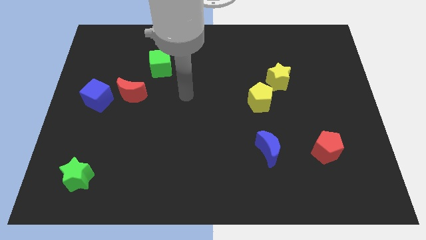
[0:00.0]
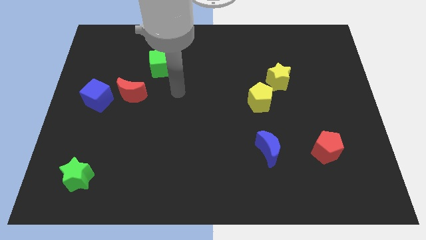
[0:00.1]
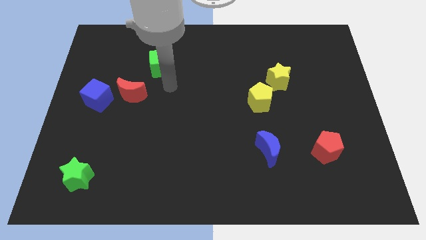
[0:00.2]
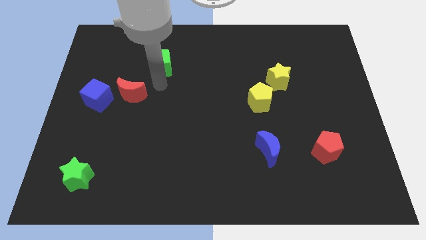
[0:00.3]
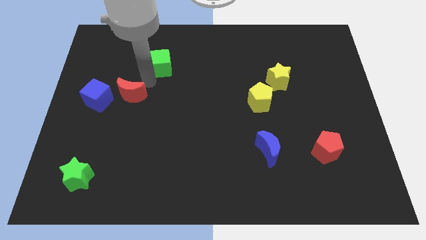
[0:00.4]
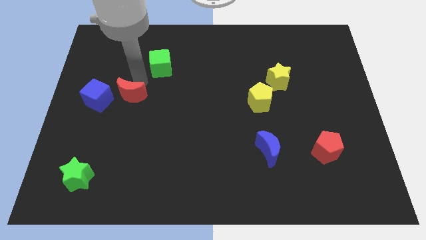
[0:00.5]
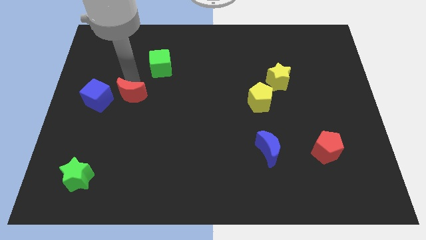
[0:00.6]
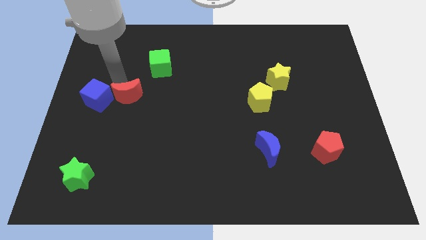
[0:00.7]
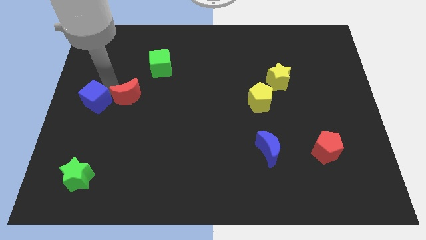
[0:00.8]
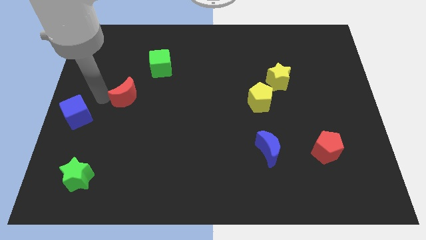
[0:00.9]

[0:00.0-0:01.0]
move the red moon away from the blue cube

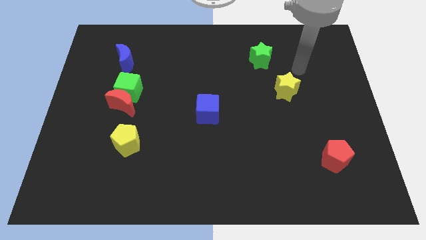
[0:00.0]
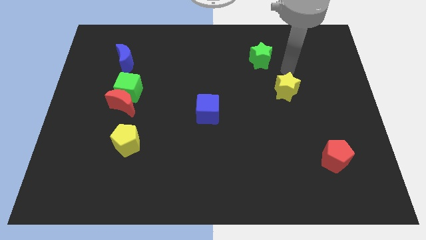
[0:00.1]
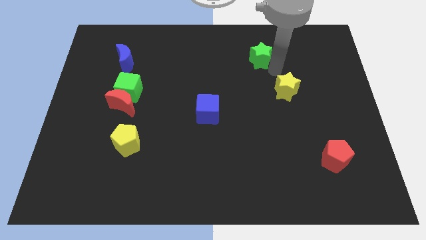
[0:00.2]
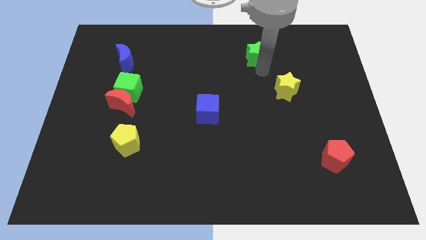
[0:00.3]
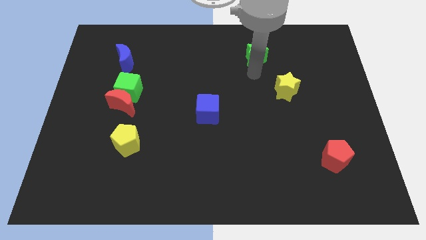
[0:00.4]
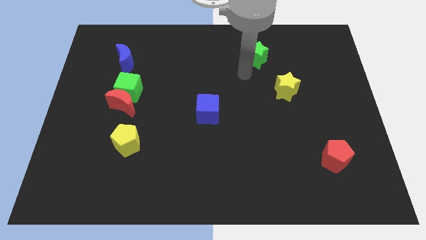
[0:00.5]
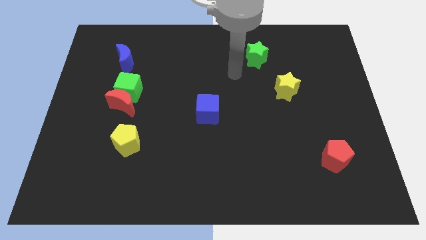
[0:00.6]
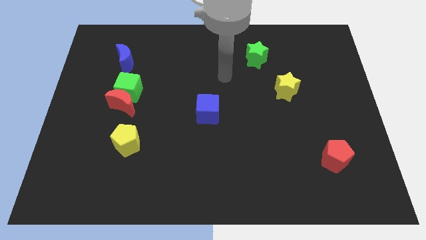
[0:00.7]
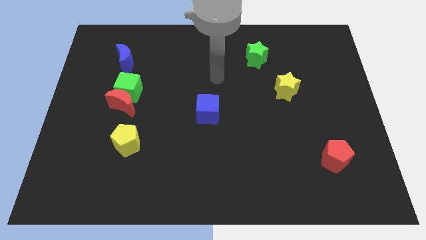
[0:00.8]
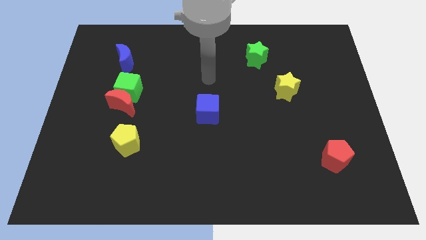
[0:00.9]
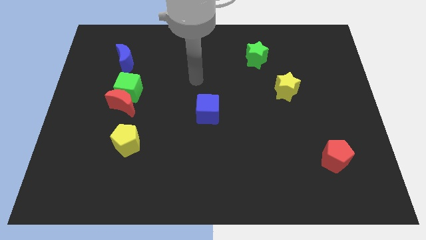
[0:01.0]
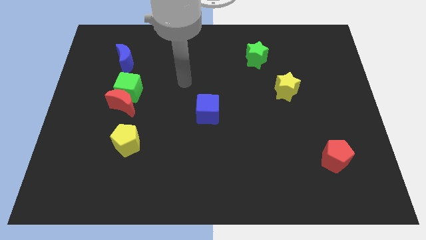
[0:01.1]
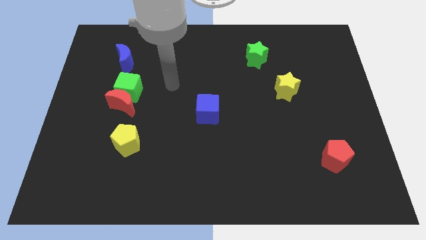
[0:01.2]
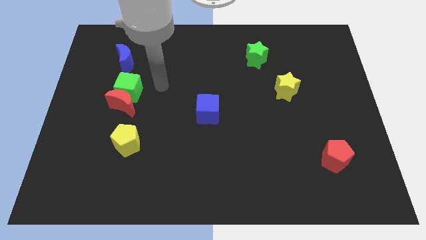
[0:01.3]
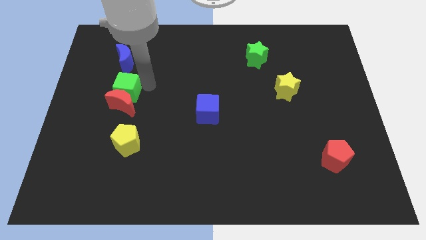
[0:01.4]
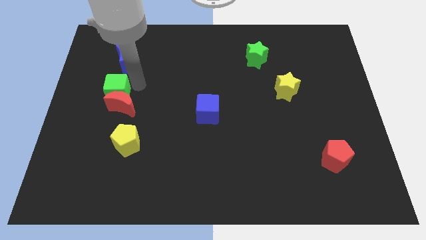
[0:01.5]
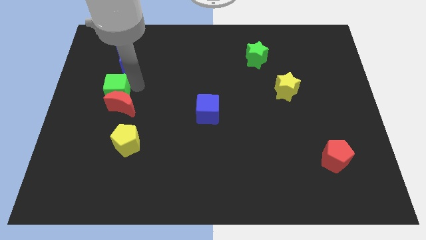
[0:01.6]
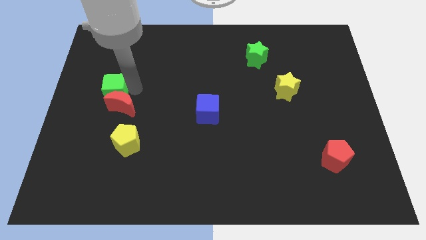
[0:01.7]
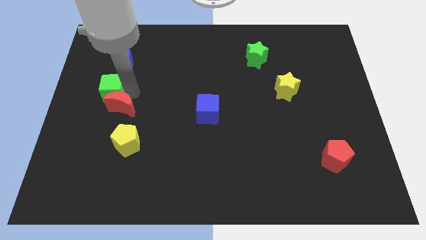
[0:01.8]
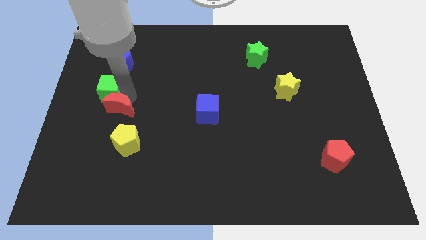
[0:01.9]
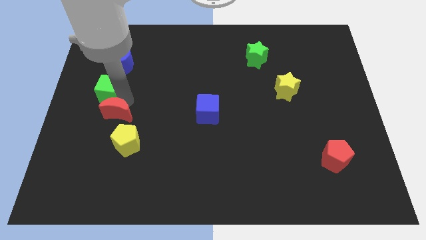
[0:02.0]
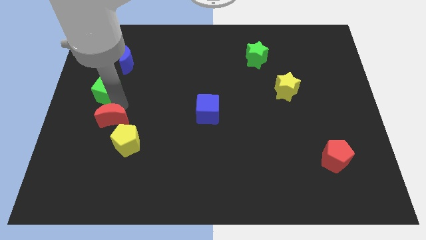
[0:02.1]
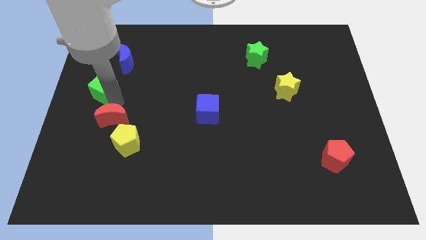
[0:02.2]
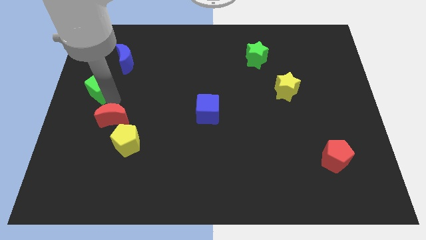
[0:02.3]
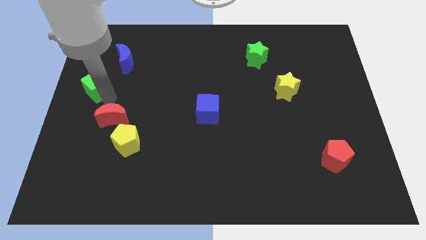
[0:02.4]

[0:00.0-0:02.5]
pull the red moon apart from the green cube

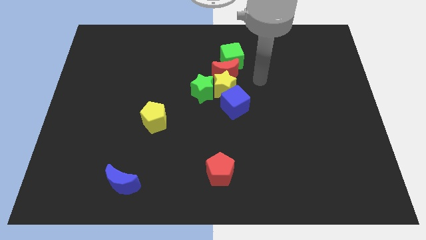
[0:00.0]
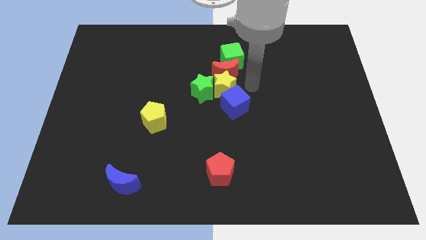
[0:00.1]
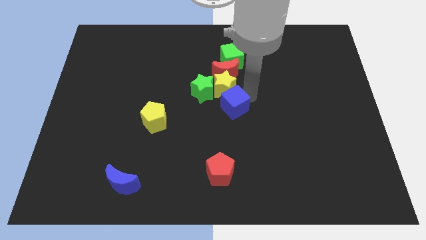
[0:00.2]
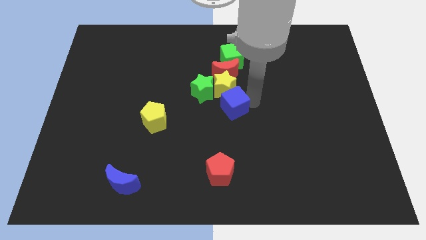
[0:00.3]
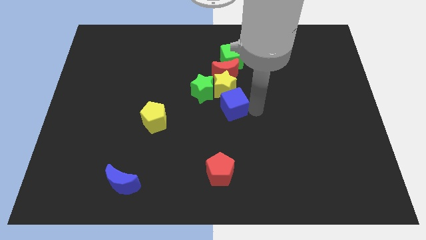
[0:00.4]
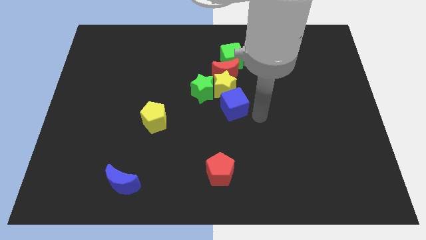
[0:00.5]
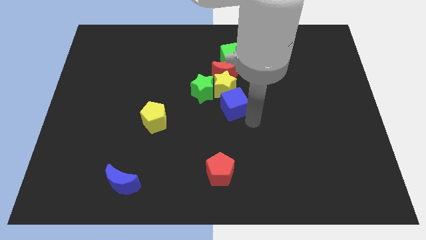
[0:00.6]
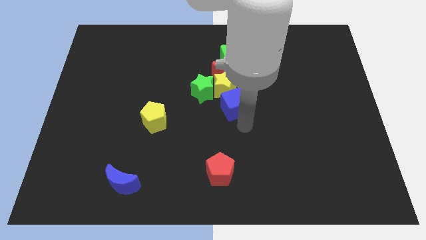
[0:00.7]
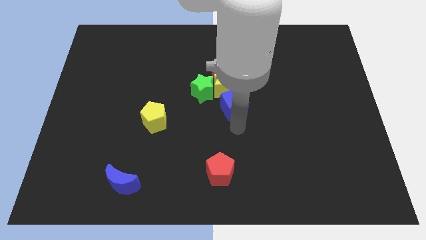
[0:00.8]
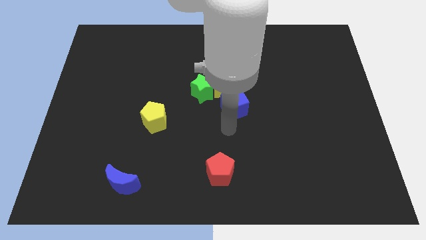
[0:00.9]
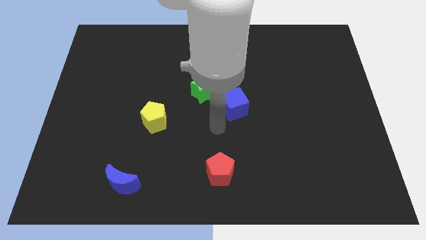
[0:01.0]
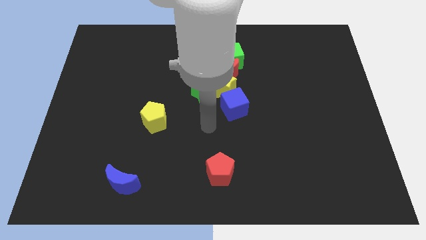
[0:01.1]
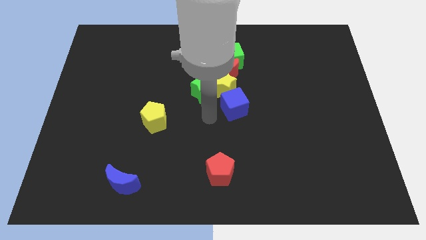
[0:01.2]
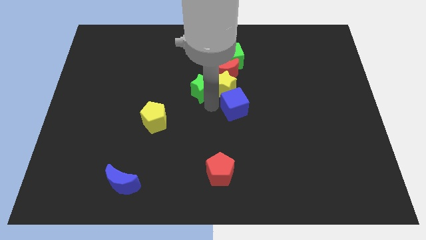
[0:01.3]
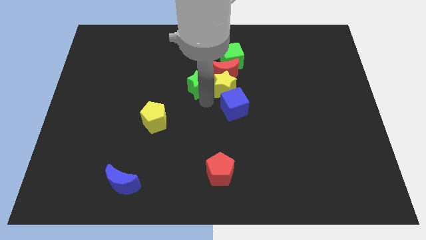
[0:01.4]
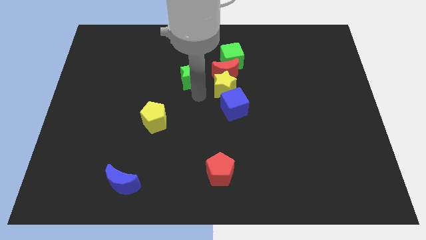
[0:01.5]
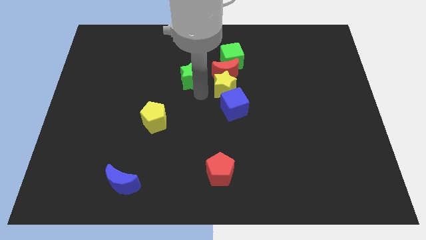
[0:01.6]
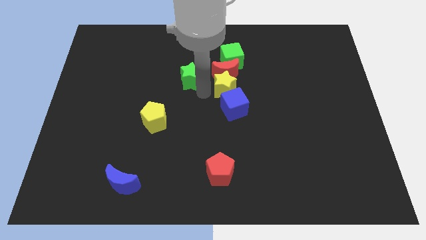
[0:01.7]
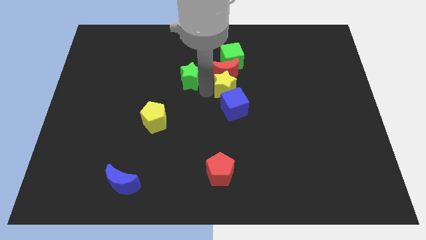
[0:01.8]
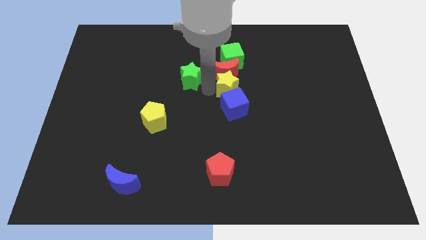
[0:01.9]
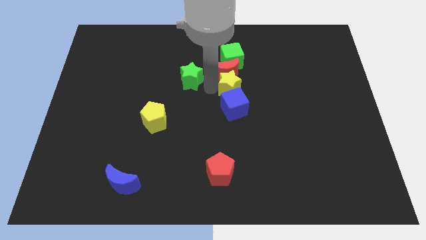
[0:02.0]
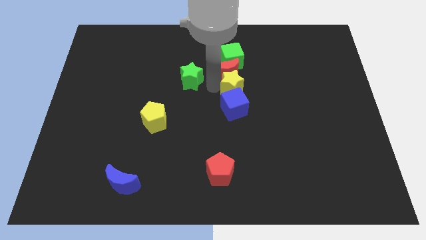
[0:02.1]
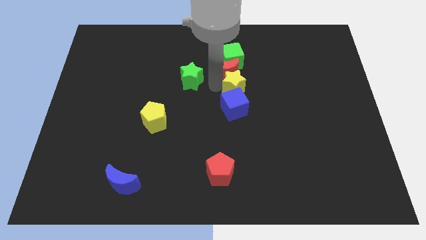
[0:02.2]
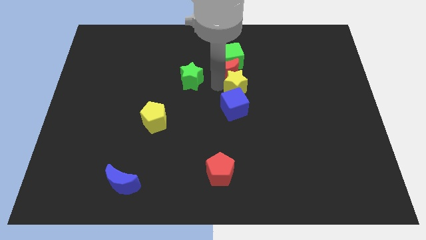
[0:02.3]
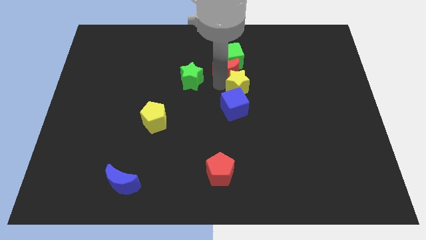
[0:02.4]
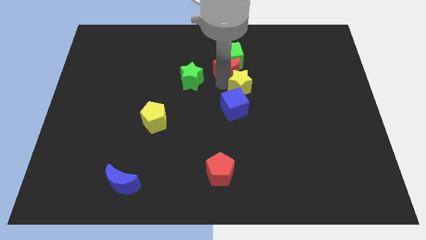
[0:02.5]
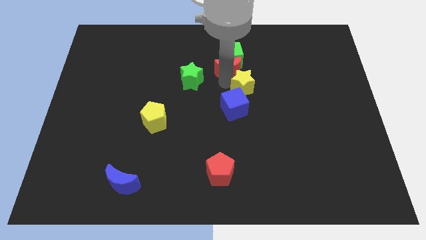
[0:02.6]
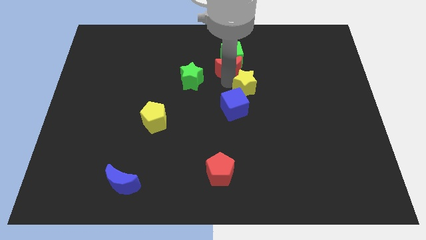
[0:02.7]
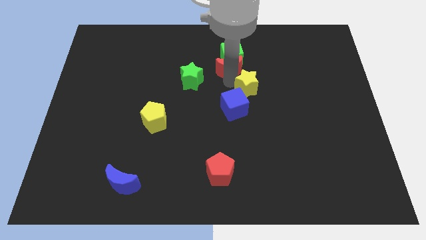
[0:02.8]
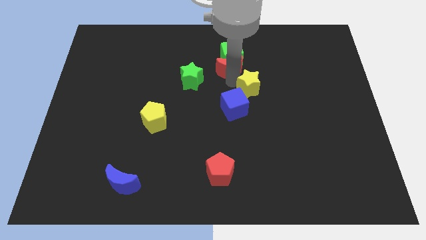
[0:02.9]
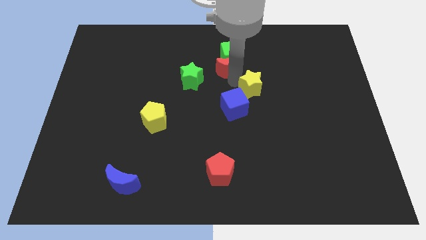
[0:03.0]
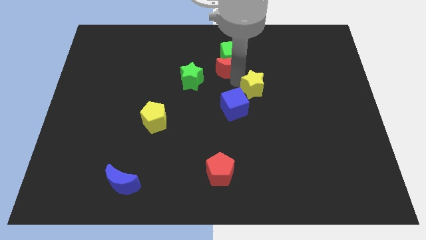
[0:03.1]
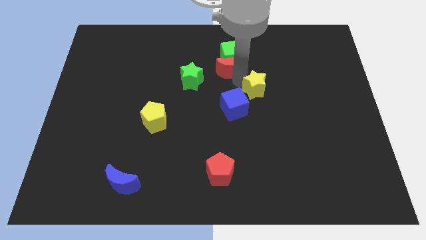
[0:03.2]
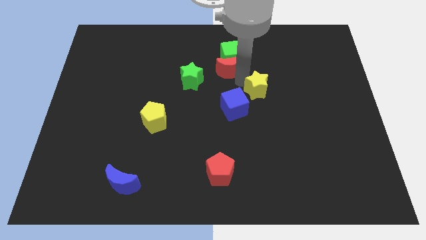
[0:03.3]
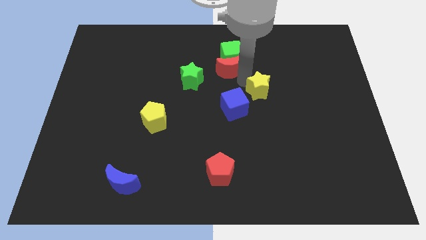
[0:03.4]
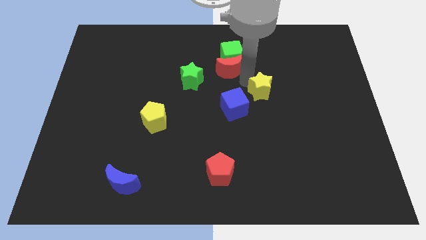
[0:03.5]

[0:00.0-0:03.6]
separate the yellow star from the group of blocks

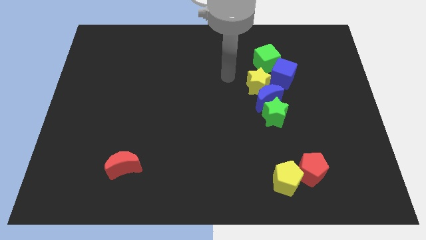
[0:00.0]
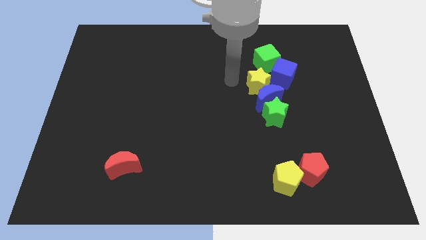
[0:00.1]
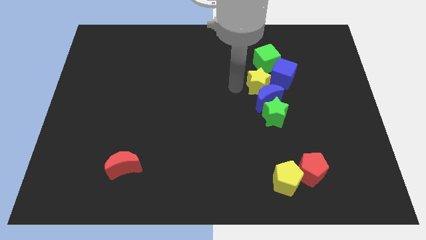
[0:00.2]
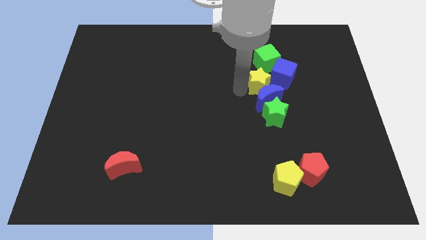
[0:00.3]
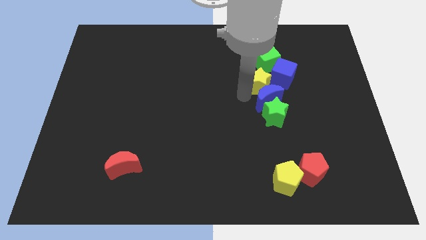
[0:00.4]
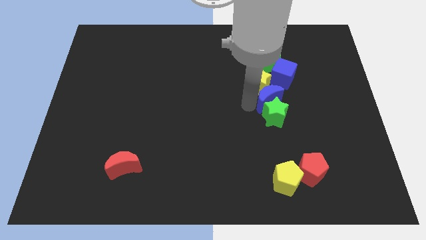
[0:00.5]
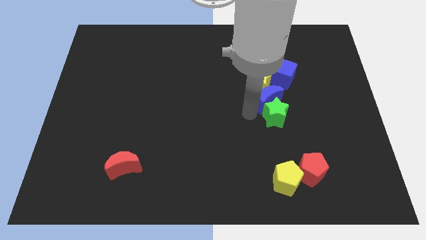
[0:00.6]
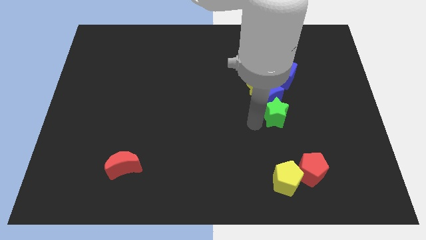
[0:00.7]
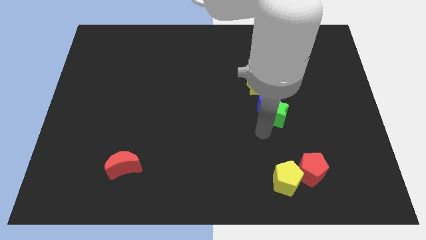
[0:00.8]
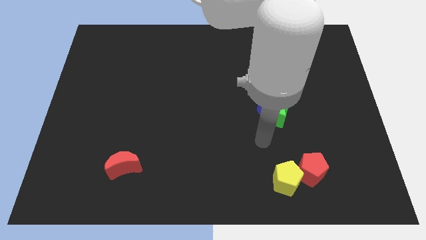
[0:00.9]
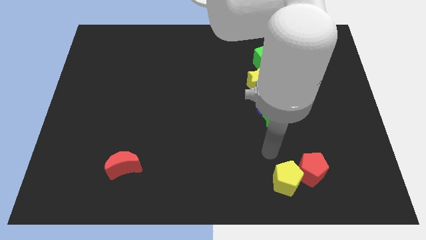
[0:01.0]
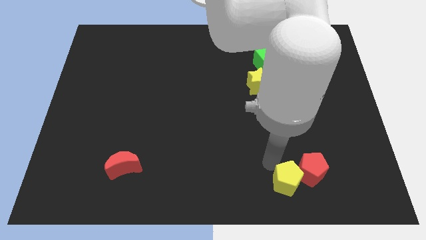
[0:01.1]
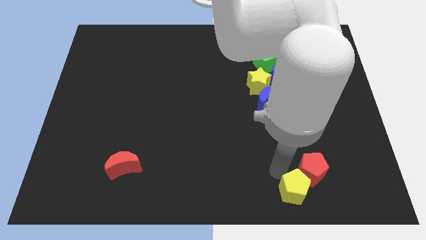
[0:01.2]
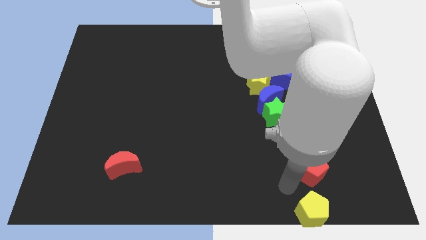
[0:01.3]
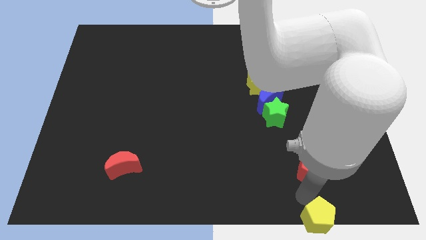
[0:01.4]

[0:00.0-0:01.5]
move the red pentagon away from the yellow pentagon

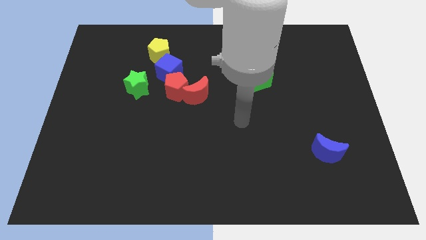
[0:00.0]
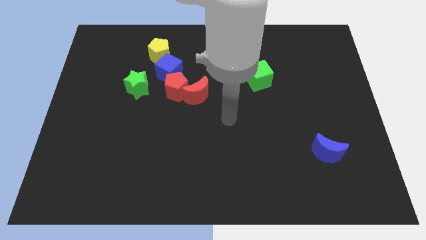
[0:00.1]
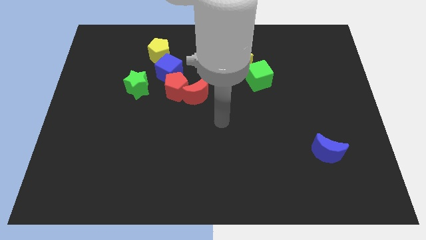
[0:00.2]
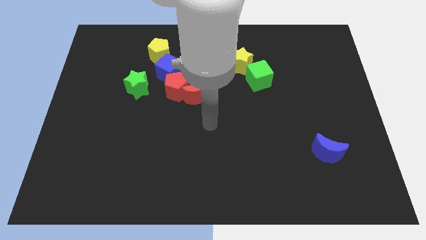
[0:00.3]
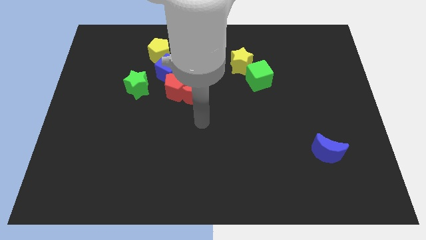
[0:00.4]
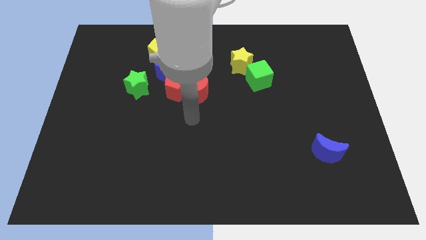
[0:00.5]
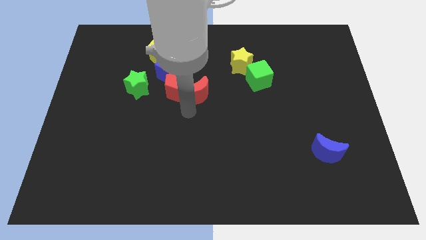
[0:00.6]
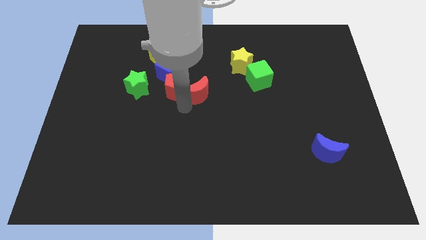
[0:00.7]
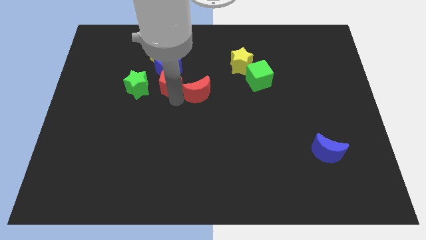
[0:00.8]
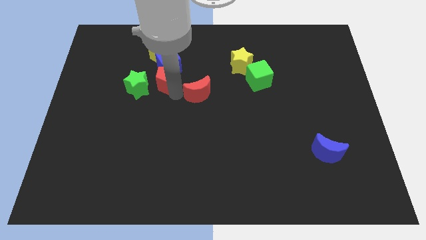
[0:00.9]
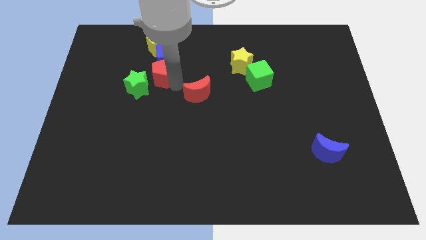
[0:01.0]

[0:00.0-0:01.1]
pull the red moon apart from the red pentagon
